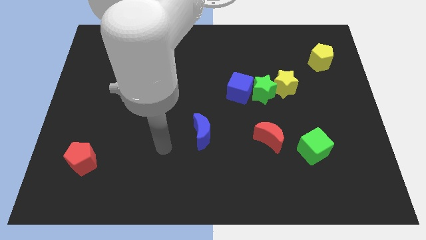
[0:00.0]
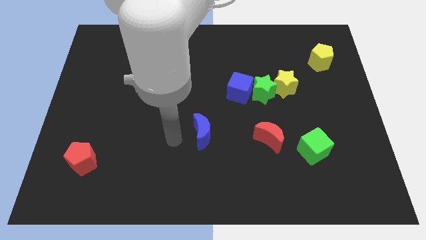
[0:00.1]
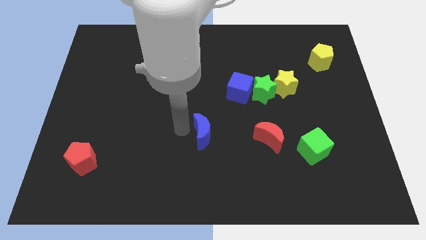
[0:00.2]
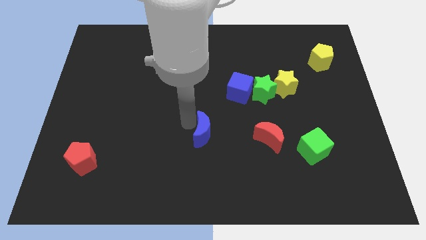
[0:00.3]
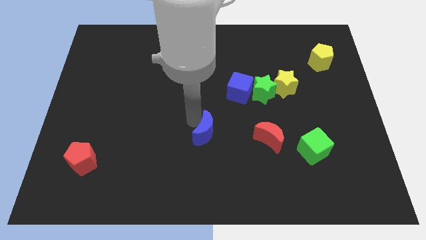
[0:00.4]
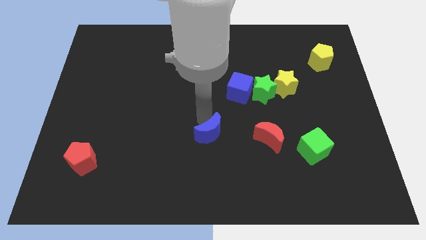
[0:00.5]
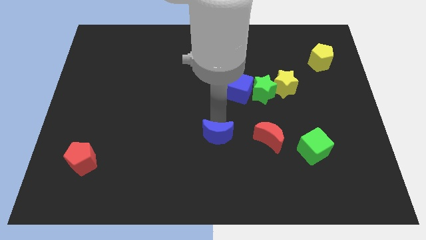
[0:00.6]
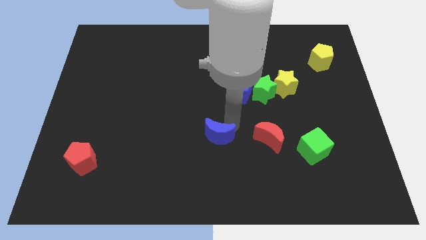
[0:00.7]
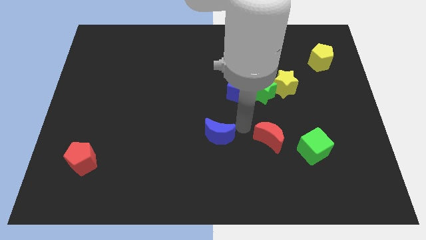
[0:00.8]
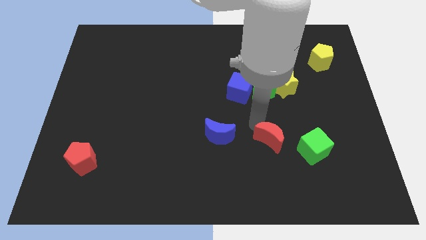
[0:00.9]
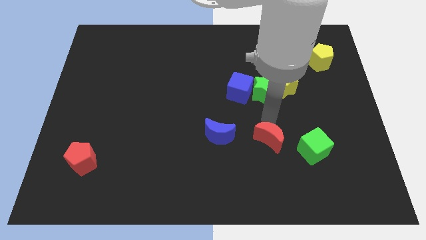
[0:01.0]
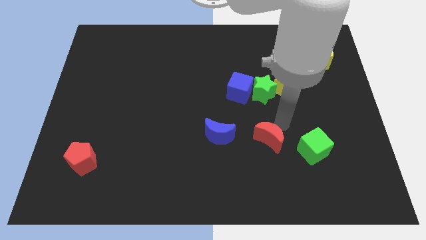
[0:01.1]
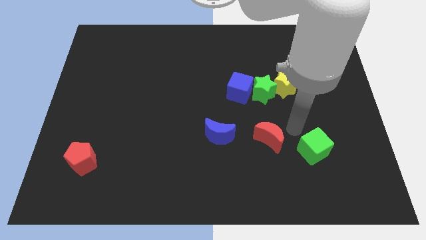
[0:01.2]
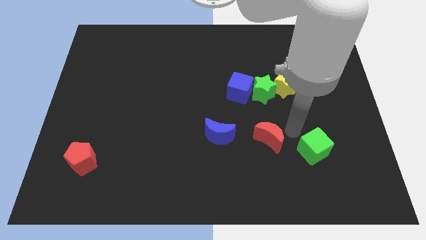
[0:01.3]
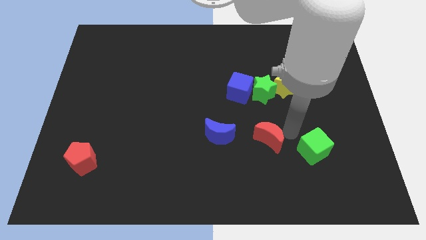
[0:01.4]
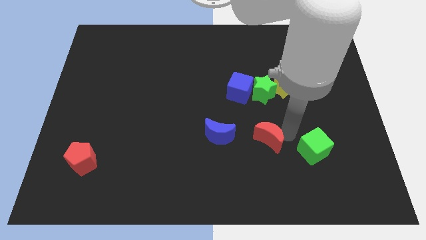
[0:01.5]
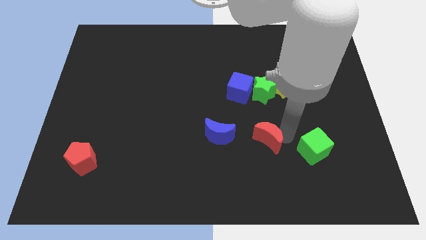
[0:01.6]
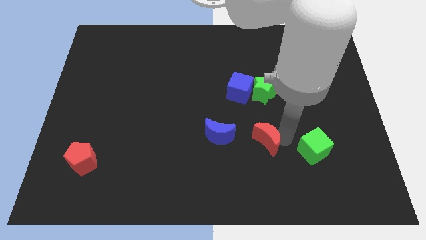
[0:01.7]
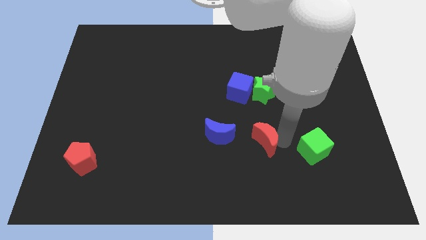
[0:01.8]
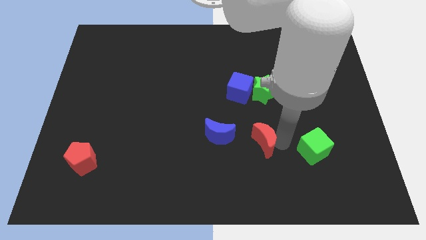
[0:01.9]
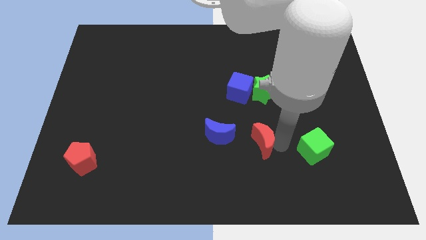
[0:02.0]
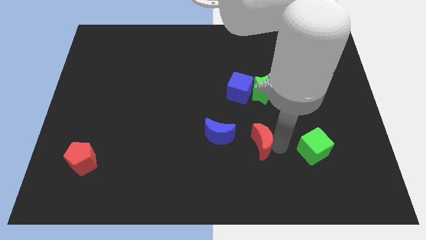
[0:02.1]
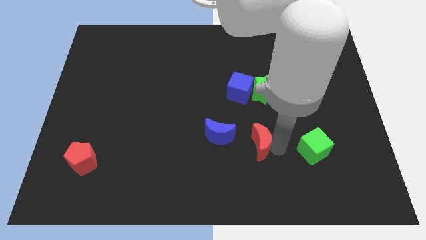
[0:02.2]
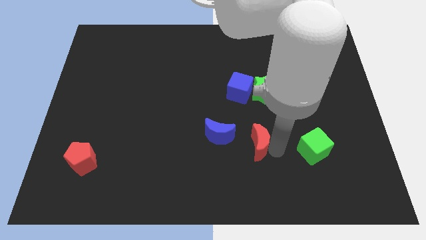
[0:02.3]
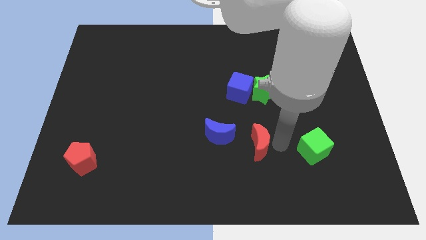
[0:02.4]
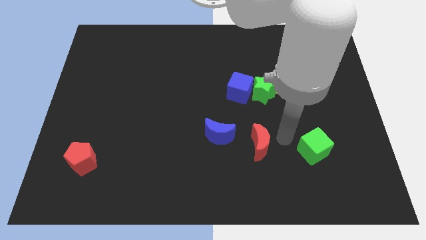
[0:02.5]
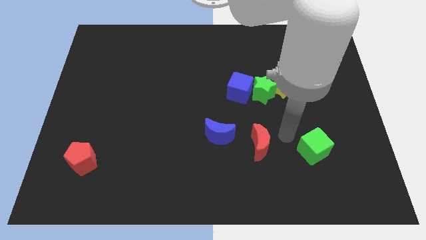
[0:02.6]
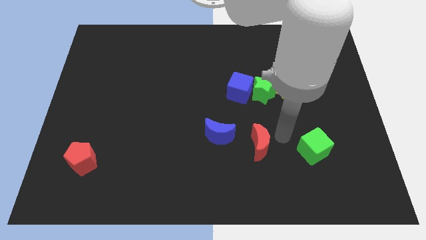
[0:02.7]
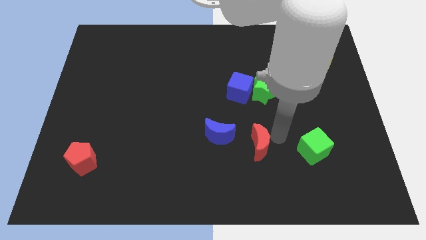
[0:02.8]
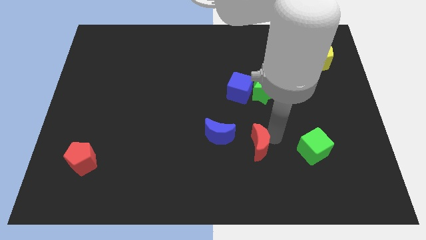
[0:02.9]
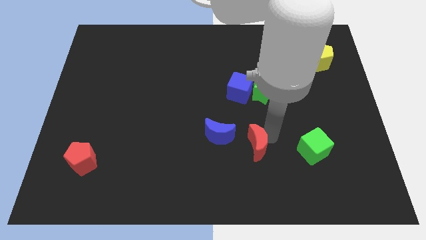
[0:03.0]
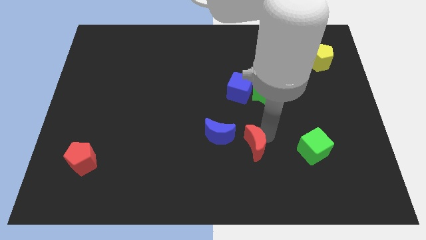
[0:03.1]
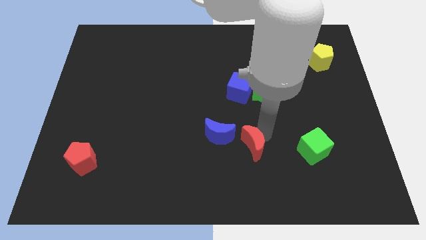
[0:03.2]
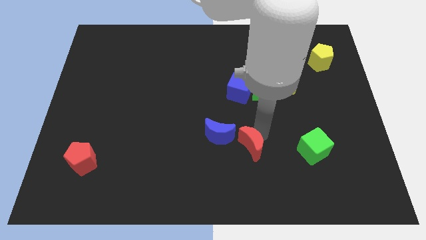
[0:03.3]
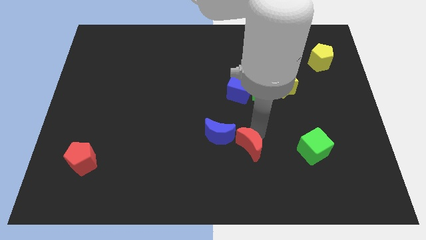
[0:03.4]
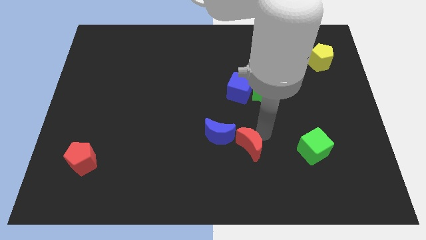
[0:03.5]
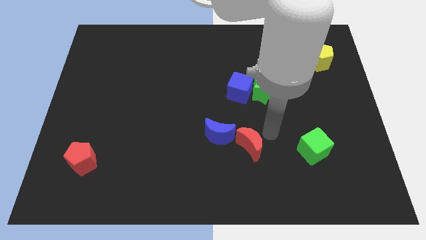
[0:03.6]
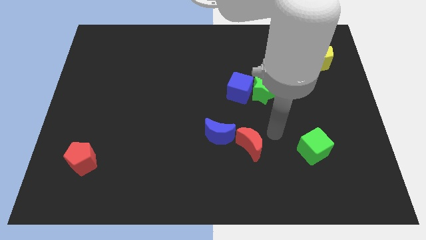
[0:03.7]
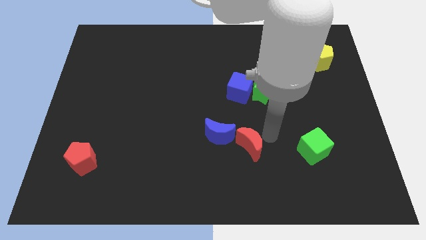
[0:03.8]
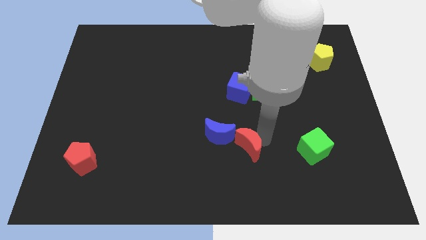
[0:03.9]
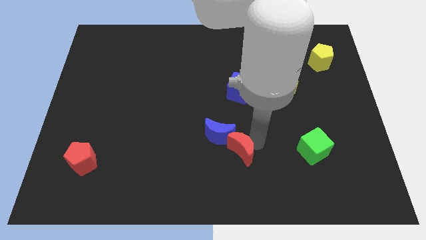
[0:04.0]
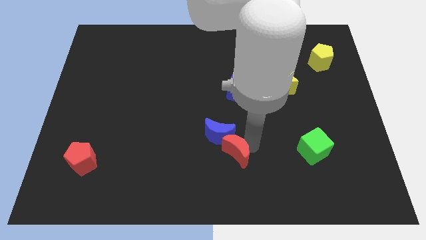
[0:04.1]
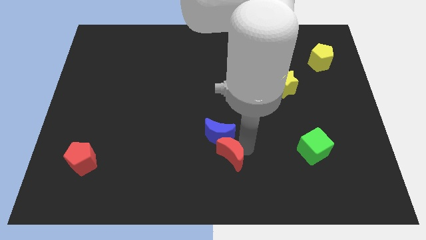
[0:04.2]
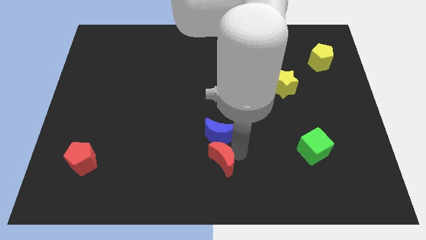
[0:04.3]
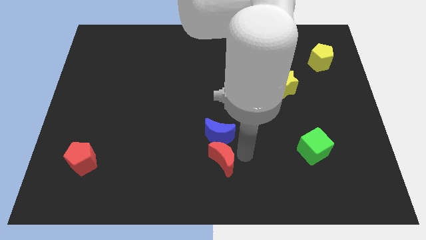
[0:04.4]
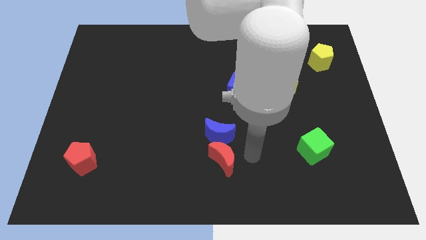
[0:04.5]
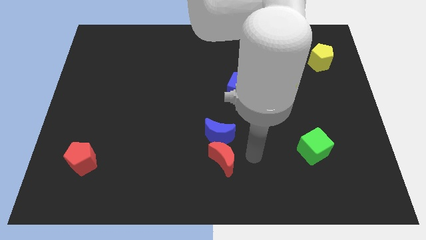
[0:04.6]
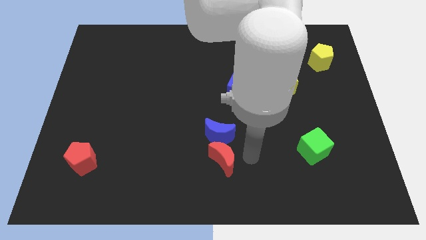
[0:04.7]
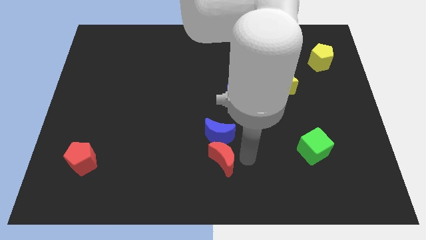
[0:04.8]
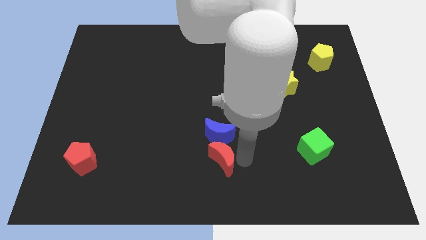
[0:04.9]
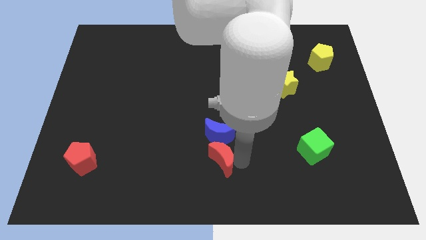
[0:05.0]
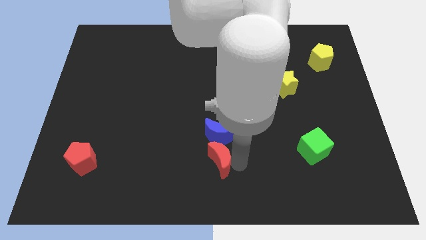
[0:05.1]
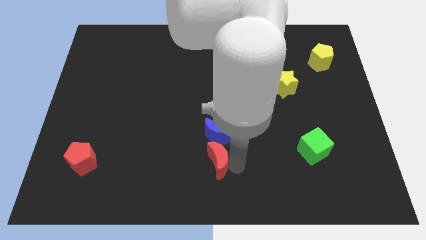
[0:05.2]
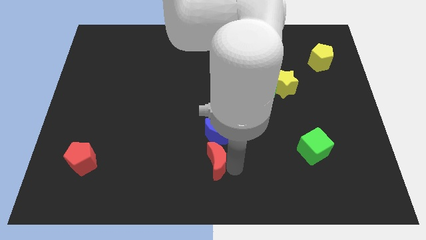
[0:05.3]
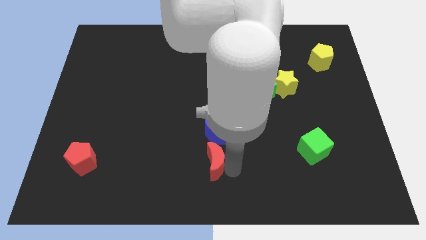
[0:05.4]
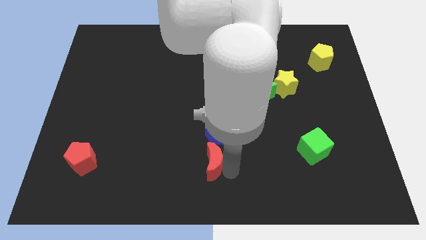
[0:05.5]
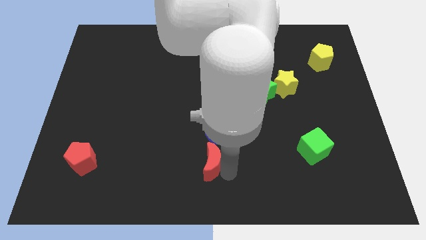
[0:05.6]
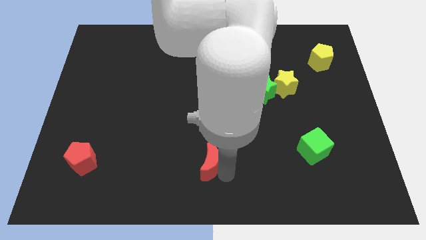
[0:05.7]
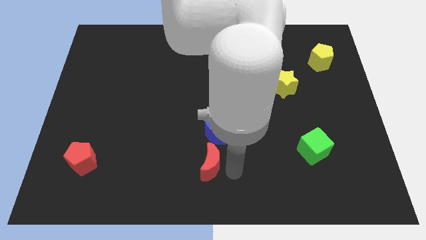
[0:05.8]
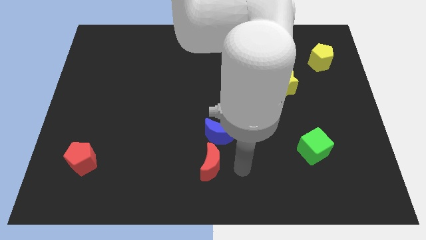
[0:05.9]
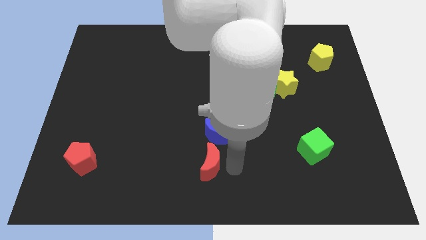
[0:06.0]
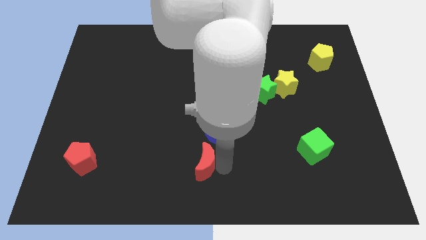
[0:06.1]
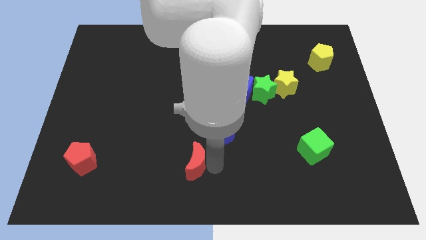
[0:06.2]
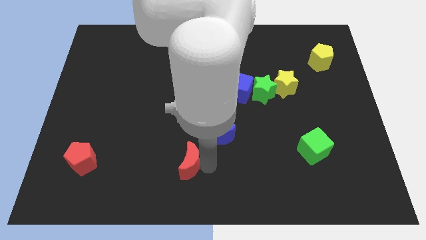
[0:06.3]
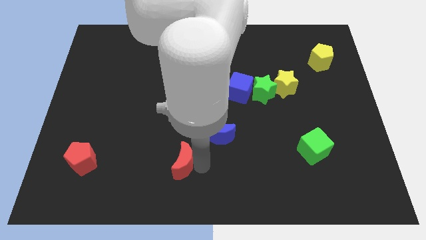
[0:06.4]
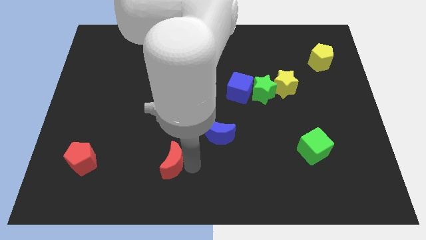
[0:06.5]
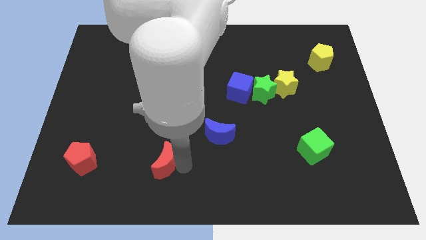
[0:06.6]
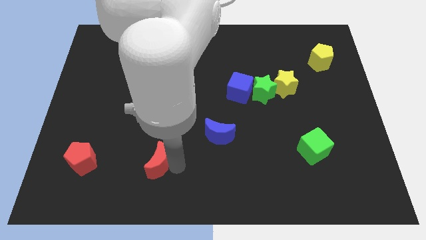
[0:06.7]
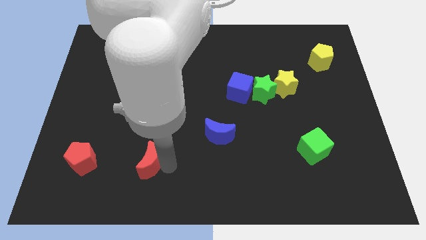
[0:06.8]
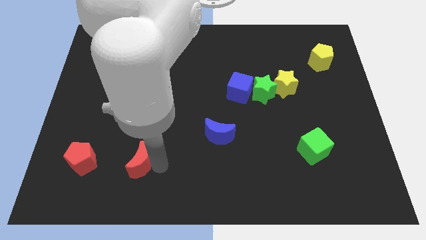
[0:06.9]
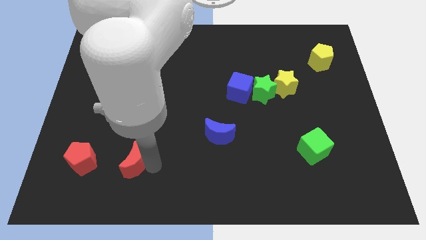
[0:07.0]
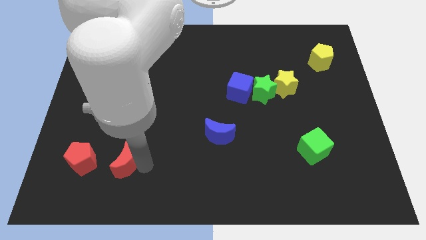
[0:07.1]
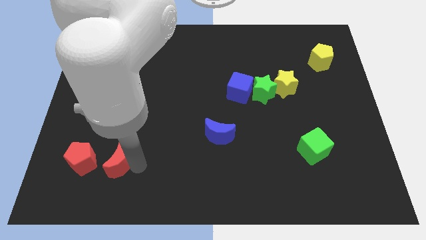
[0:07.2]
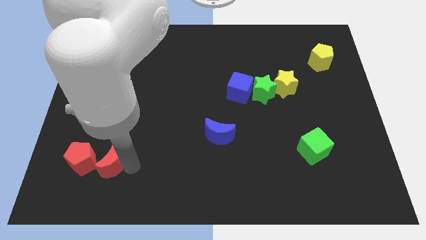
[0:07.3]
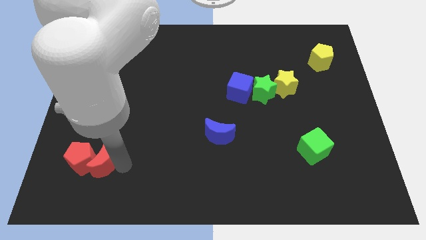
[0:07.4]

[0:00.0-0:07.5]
slide the red moon towards the red pentagon
